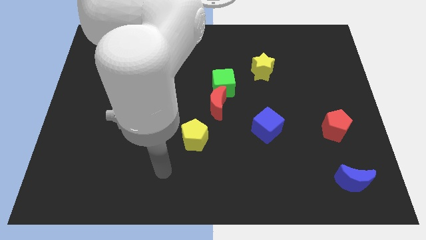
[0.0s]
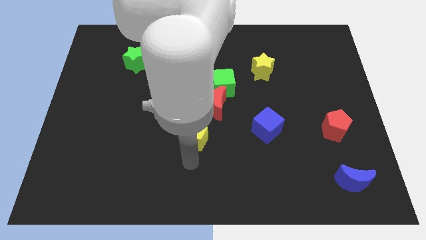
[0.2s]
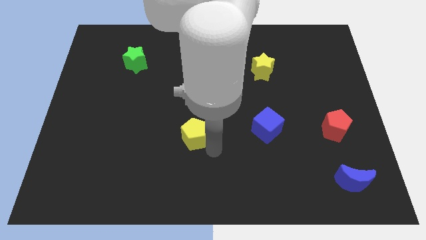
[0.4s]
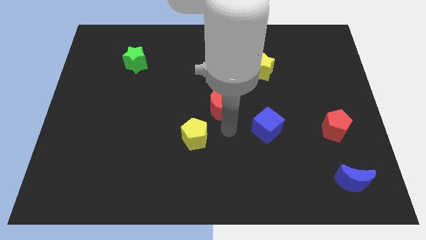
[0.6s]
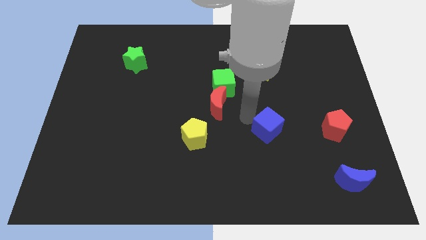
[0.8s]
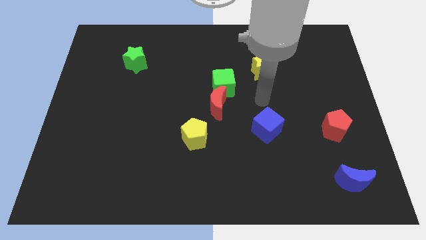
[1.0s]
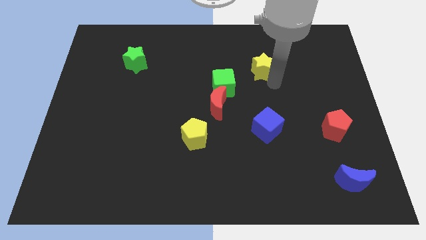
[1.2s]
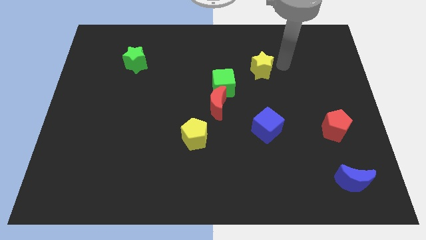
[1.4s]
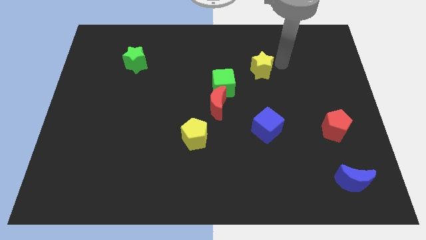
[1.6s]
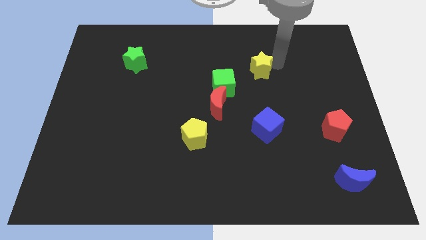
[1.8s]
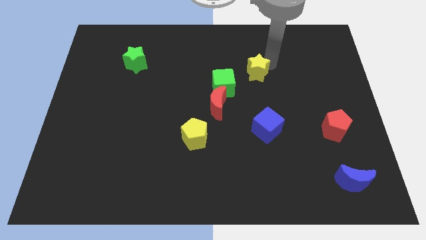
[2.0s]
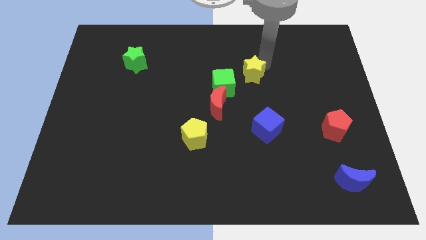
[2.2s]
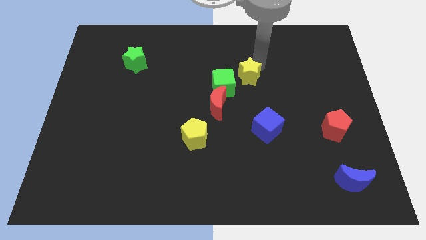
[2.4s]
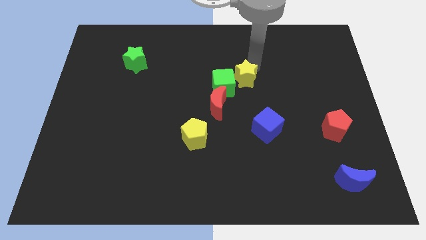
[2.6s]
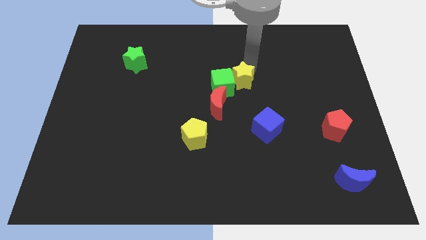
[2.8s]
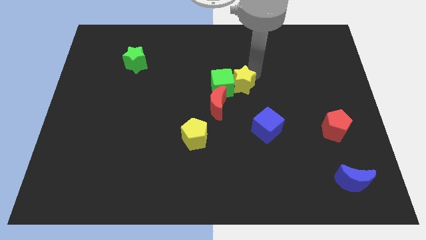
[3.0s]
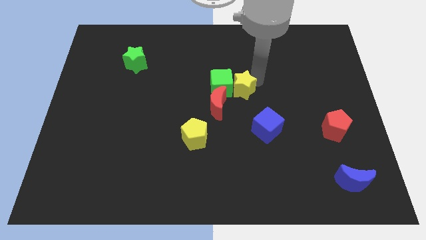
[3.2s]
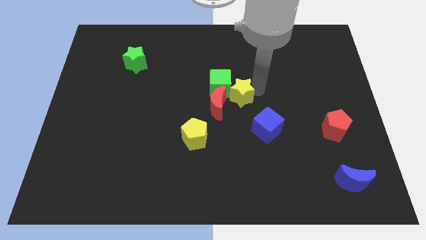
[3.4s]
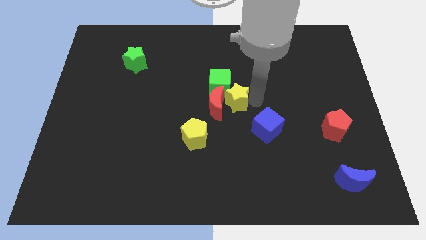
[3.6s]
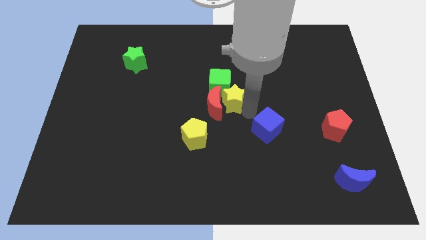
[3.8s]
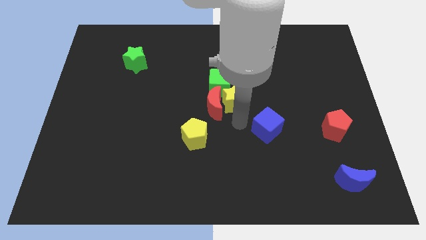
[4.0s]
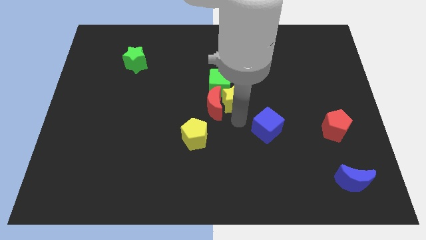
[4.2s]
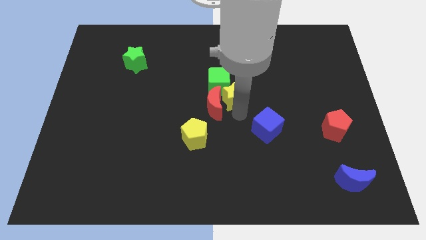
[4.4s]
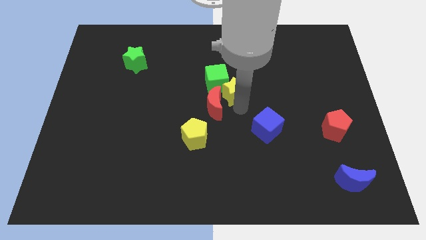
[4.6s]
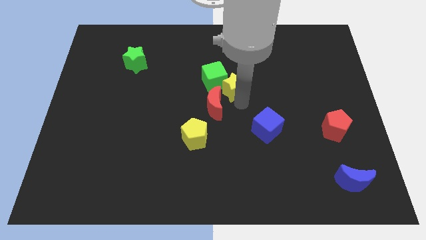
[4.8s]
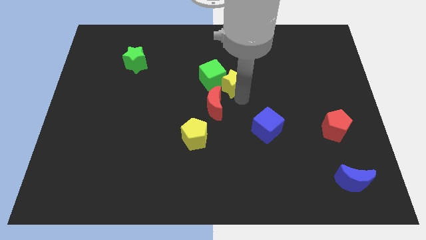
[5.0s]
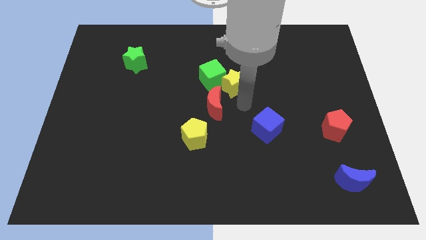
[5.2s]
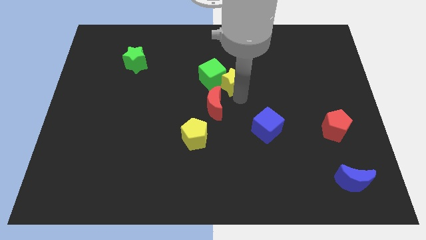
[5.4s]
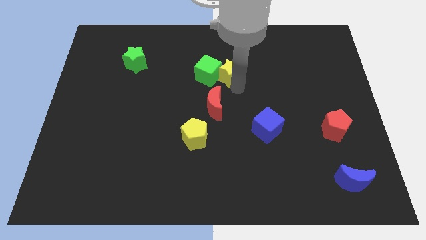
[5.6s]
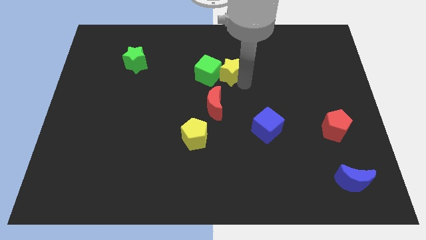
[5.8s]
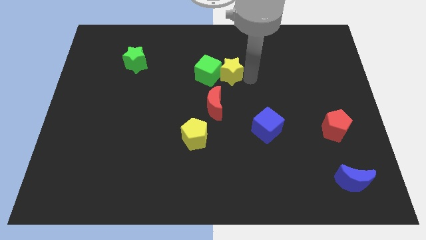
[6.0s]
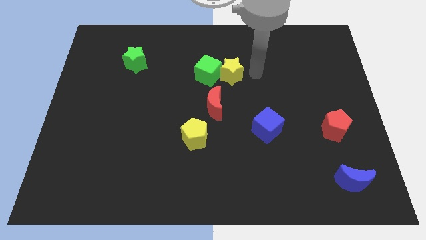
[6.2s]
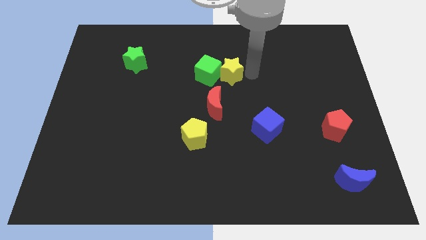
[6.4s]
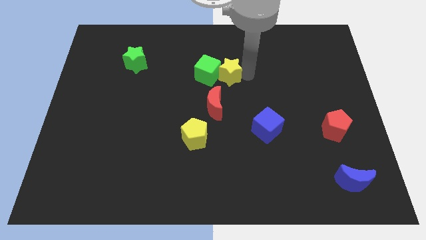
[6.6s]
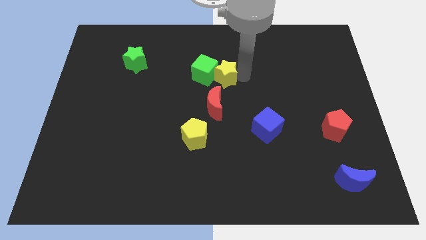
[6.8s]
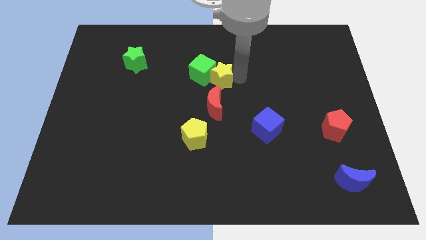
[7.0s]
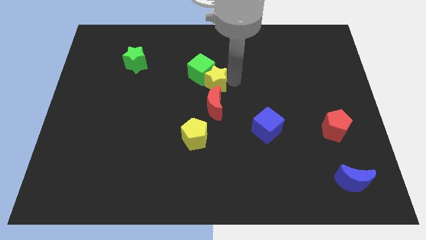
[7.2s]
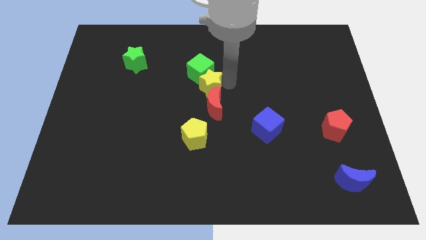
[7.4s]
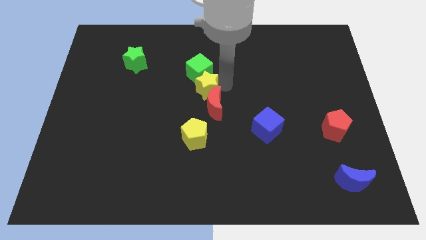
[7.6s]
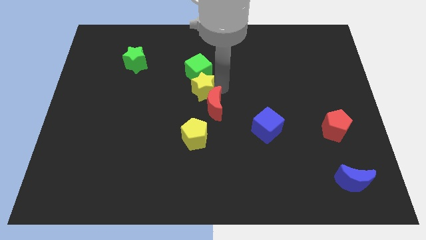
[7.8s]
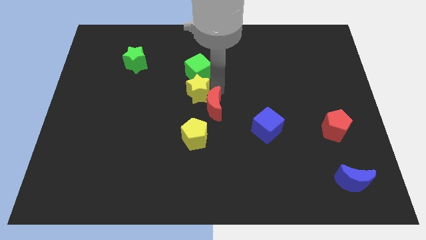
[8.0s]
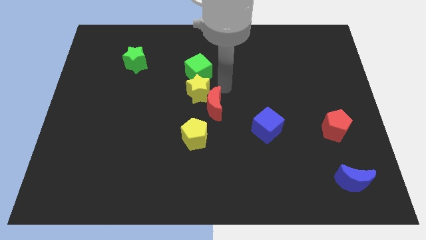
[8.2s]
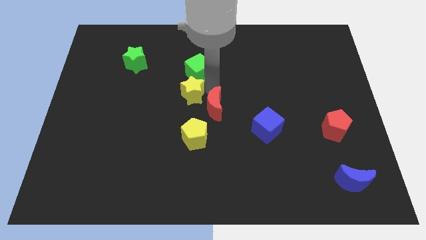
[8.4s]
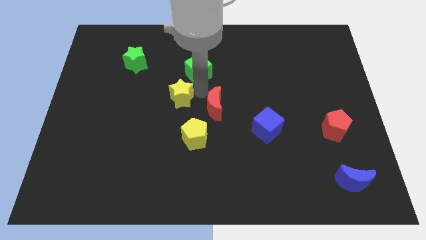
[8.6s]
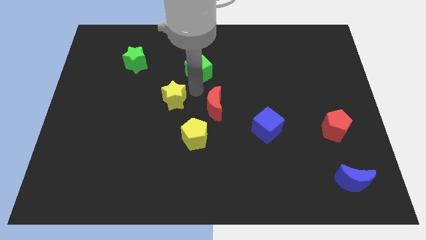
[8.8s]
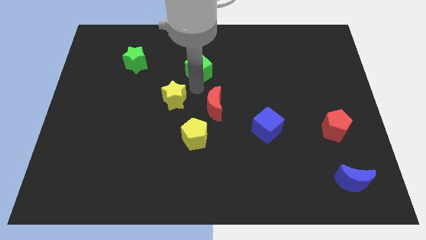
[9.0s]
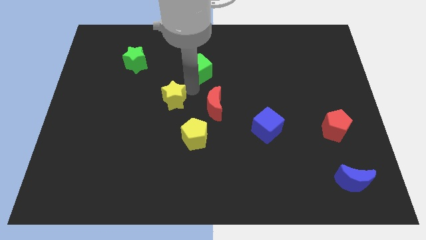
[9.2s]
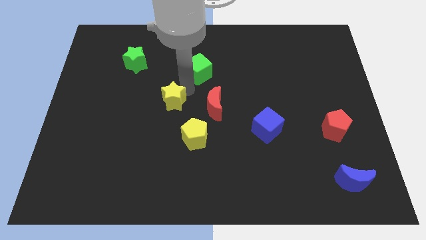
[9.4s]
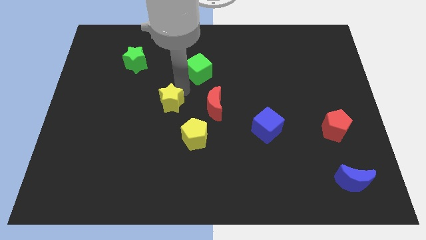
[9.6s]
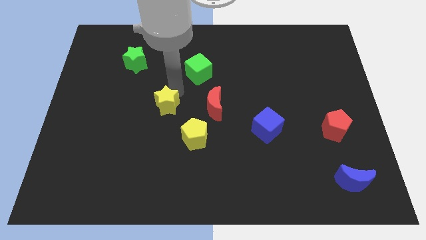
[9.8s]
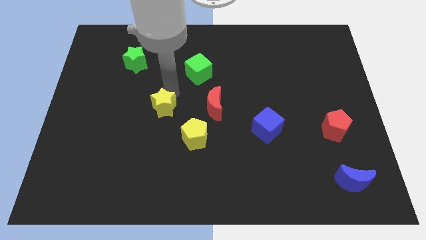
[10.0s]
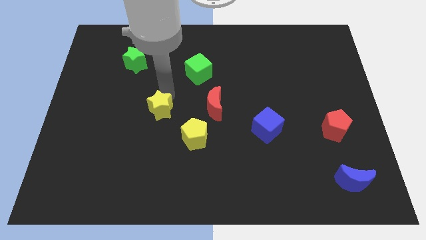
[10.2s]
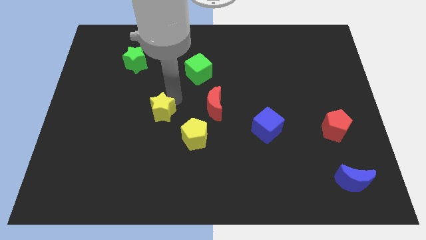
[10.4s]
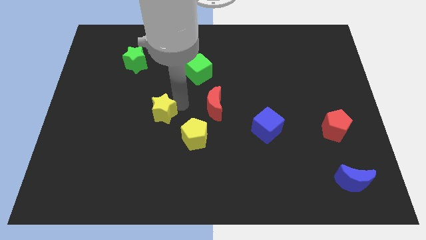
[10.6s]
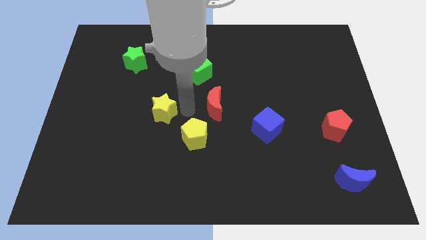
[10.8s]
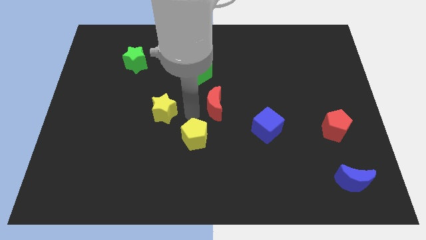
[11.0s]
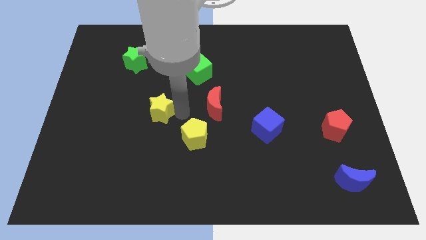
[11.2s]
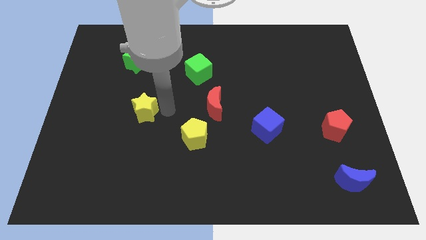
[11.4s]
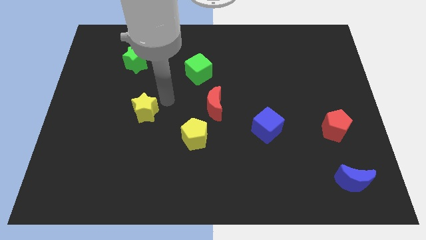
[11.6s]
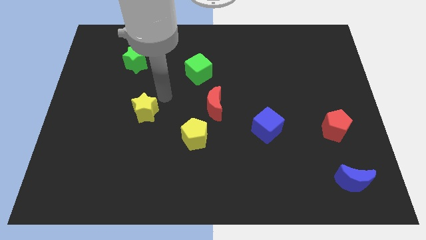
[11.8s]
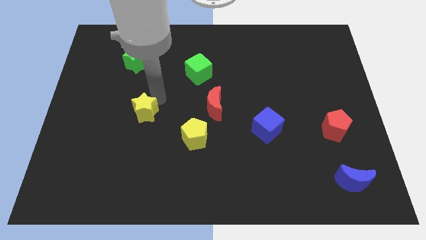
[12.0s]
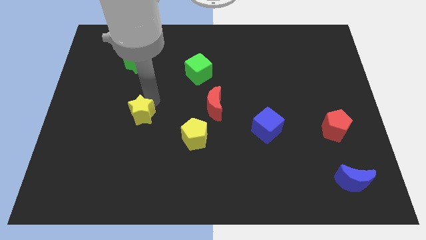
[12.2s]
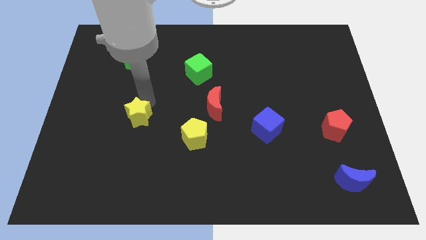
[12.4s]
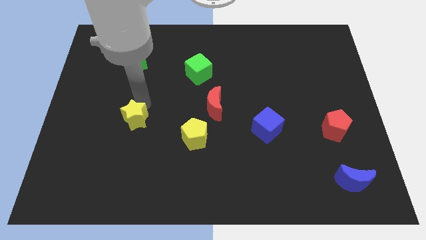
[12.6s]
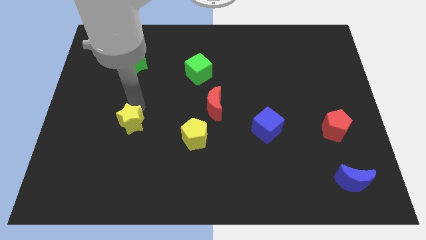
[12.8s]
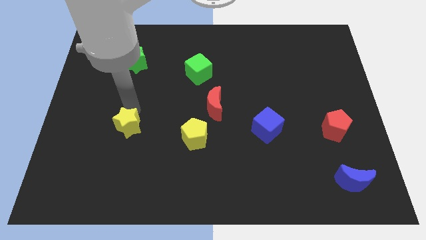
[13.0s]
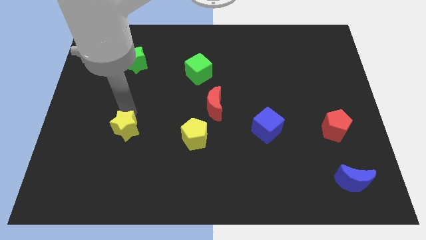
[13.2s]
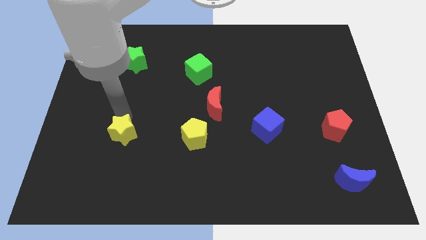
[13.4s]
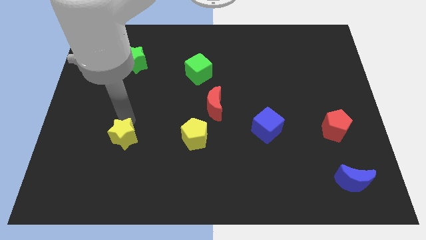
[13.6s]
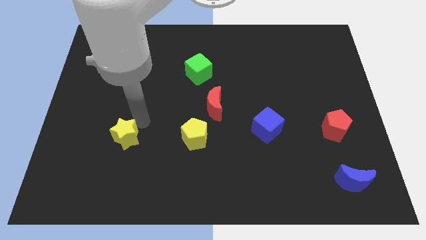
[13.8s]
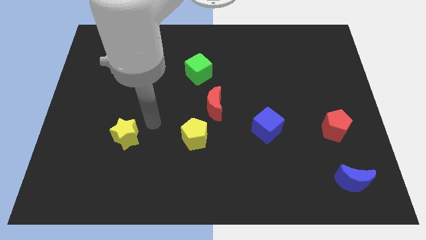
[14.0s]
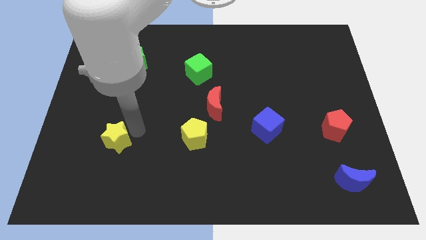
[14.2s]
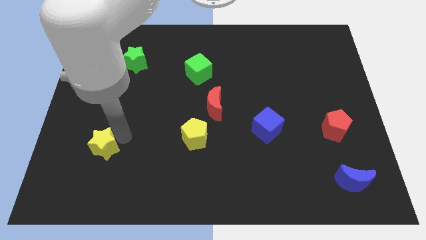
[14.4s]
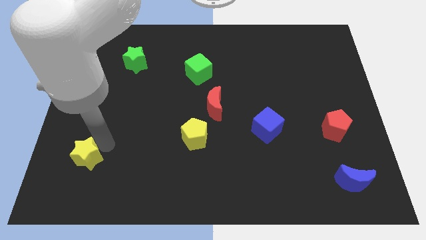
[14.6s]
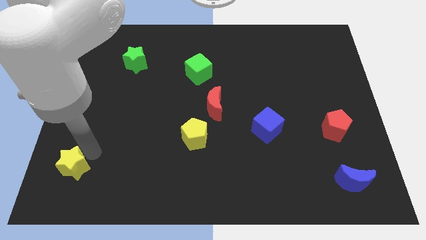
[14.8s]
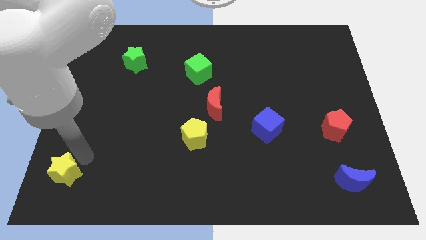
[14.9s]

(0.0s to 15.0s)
slide the yellow star to the bottom left
